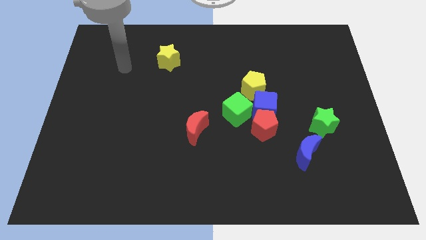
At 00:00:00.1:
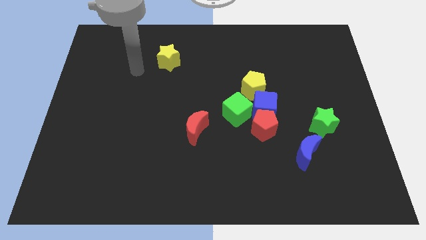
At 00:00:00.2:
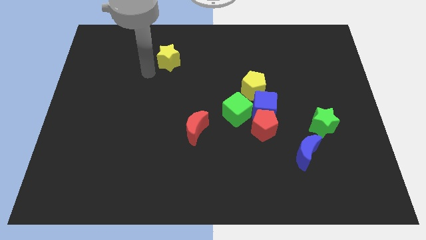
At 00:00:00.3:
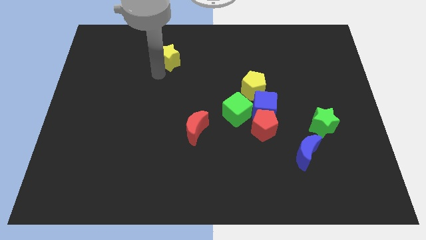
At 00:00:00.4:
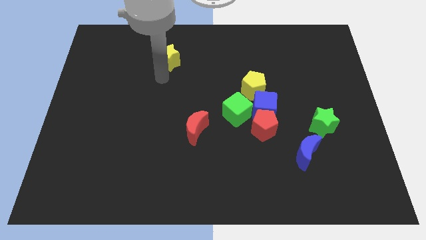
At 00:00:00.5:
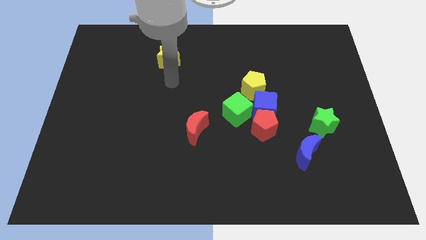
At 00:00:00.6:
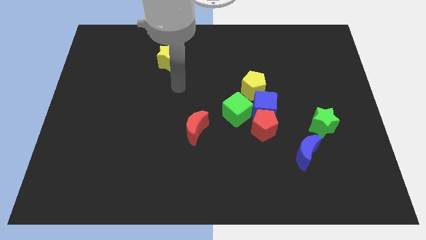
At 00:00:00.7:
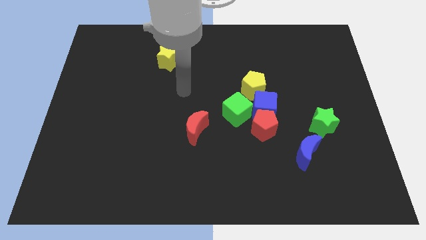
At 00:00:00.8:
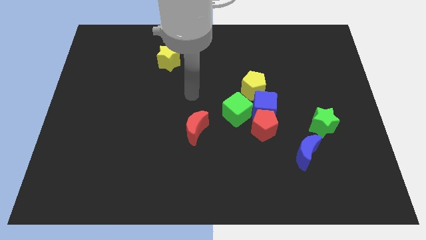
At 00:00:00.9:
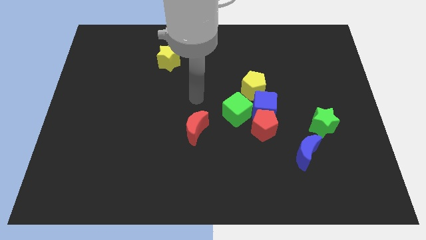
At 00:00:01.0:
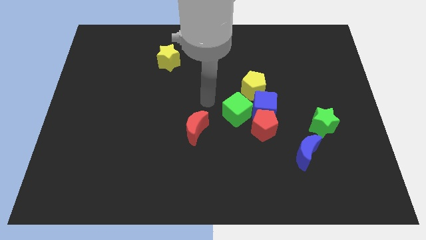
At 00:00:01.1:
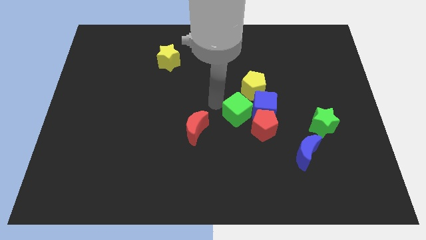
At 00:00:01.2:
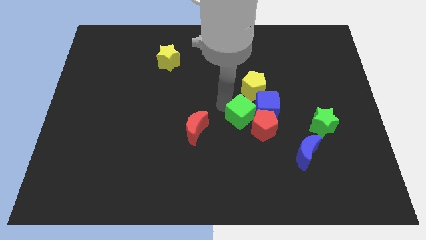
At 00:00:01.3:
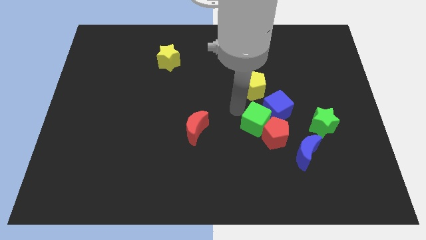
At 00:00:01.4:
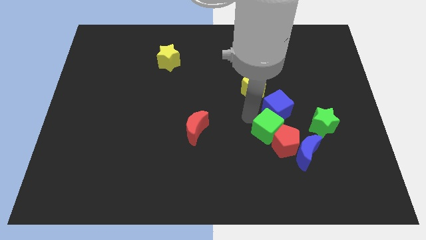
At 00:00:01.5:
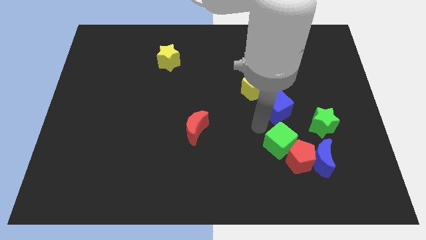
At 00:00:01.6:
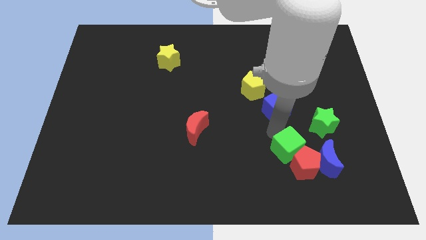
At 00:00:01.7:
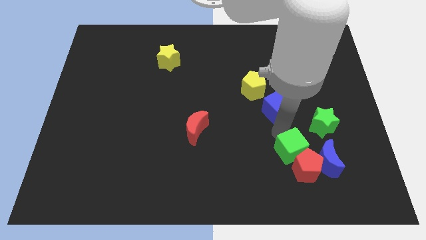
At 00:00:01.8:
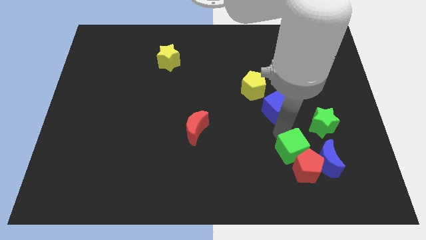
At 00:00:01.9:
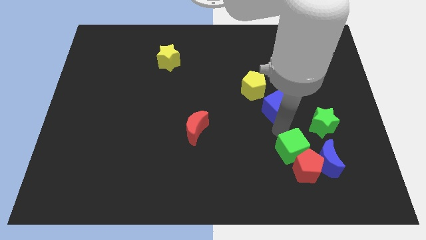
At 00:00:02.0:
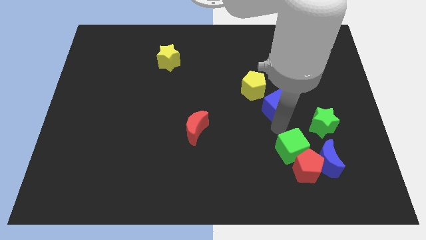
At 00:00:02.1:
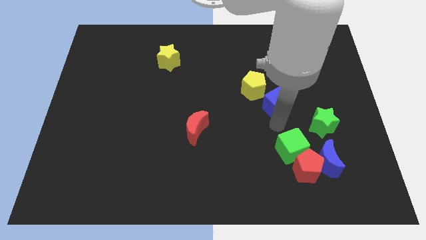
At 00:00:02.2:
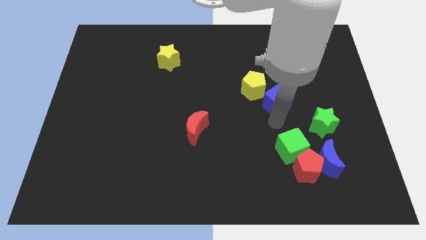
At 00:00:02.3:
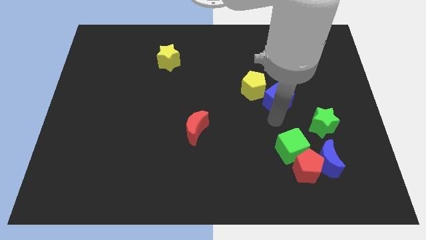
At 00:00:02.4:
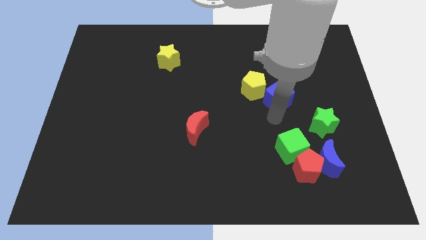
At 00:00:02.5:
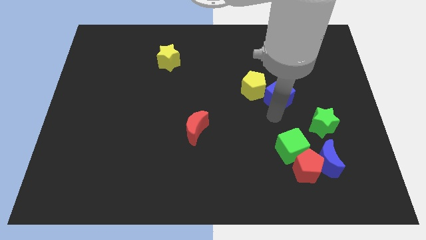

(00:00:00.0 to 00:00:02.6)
separate the blue cube from the group

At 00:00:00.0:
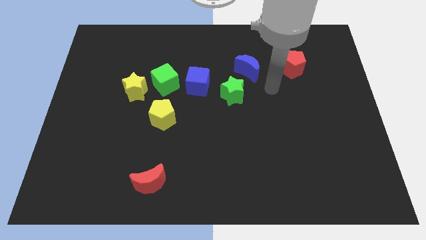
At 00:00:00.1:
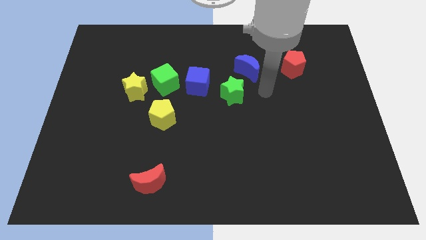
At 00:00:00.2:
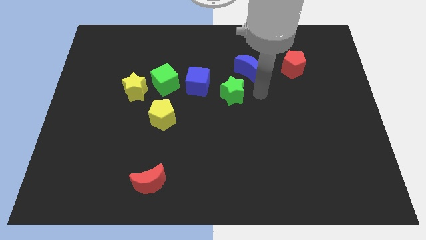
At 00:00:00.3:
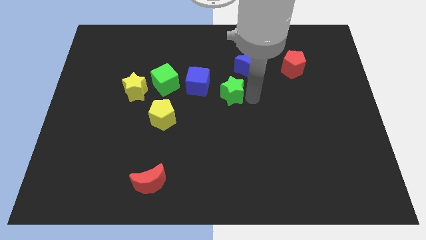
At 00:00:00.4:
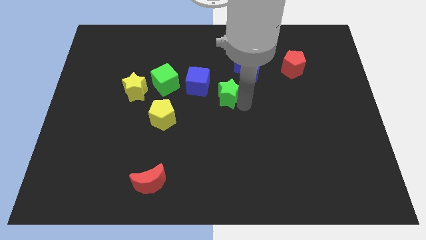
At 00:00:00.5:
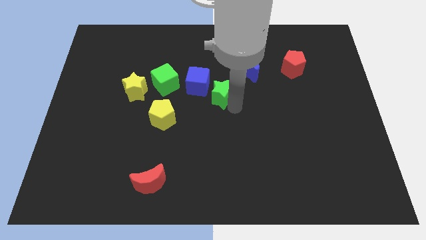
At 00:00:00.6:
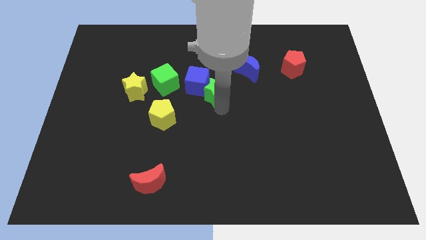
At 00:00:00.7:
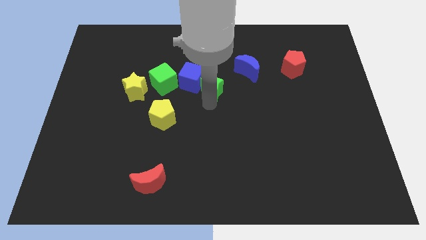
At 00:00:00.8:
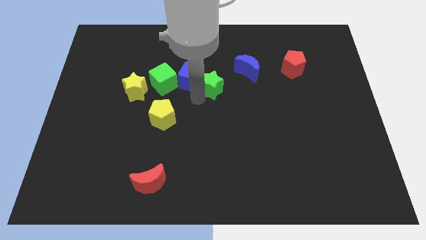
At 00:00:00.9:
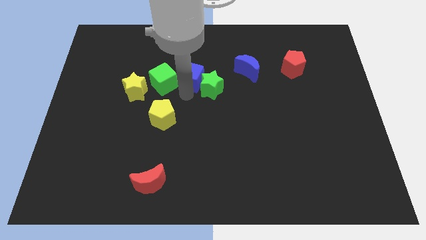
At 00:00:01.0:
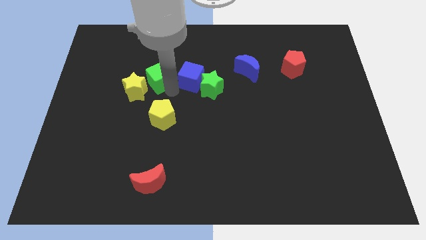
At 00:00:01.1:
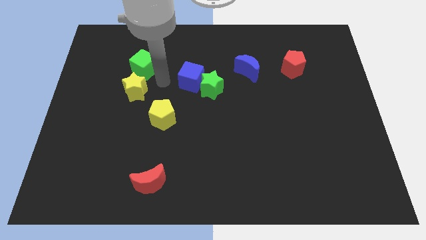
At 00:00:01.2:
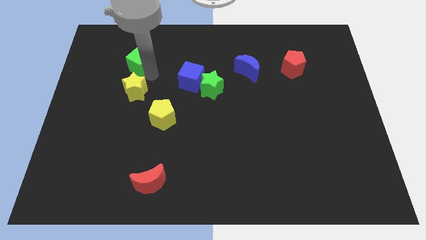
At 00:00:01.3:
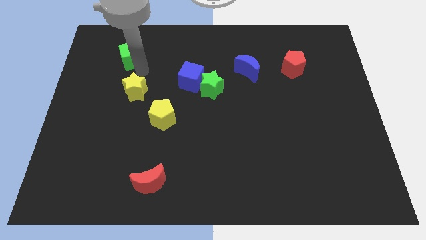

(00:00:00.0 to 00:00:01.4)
move the yellow star away from the green cube

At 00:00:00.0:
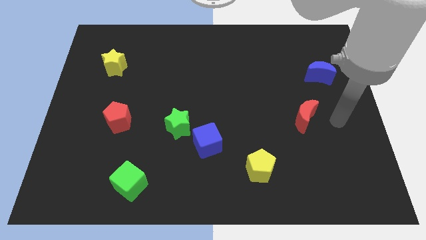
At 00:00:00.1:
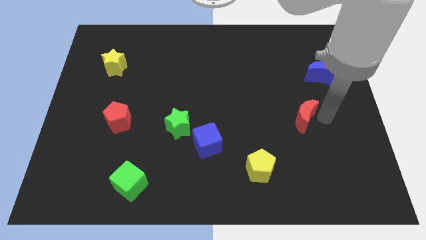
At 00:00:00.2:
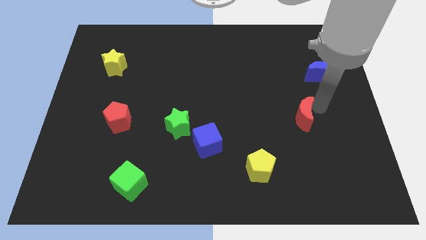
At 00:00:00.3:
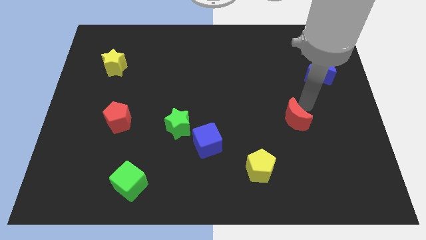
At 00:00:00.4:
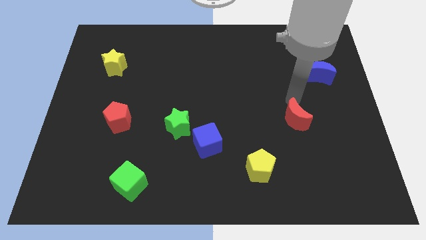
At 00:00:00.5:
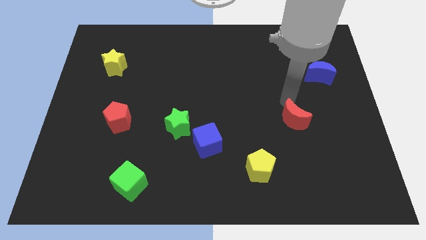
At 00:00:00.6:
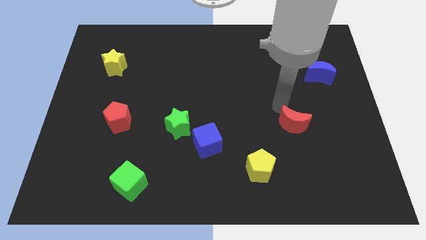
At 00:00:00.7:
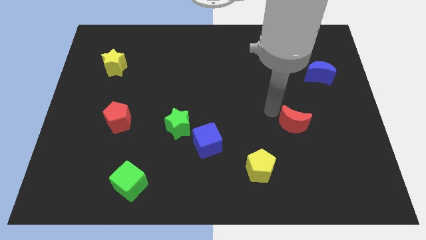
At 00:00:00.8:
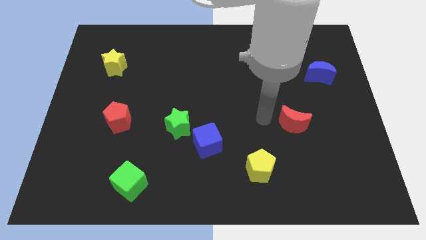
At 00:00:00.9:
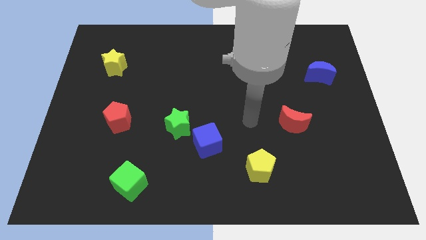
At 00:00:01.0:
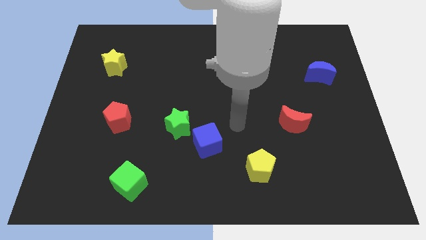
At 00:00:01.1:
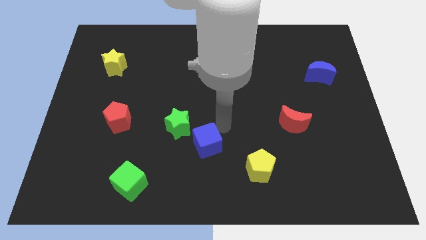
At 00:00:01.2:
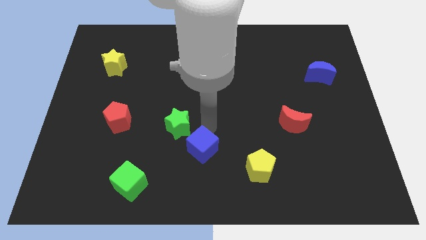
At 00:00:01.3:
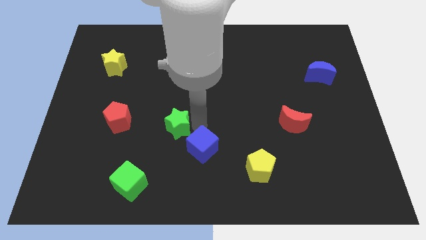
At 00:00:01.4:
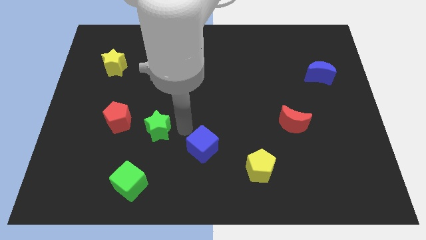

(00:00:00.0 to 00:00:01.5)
move the blue cube away from the green star

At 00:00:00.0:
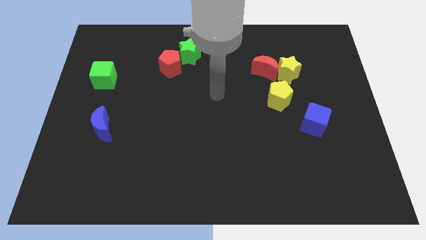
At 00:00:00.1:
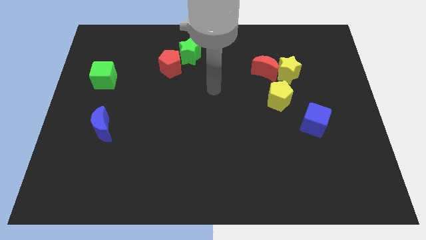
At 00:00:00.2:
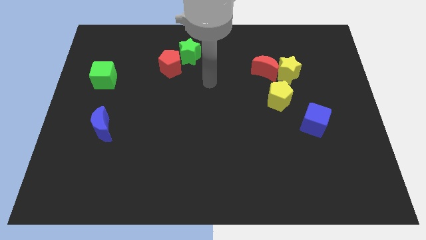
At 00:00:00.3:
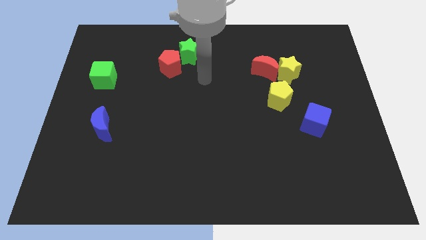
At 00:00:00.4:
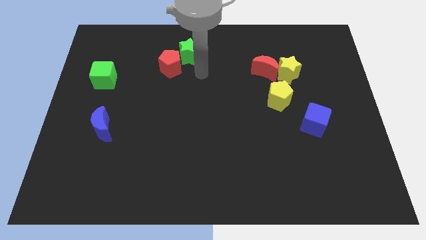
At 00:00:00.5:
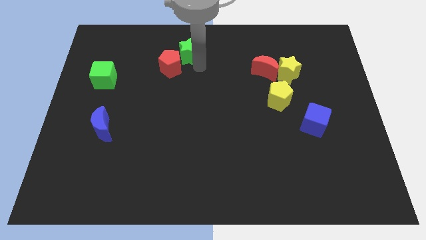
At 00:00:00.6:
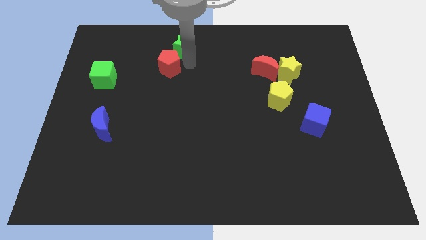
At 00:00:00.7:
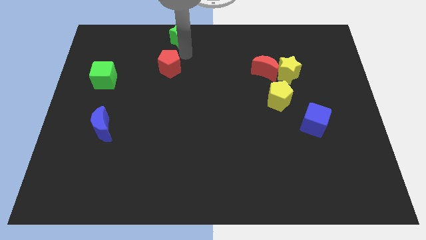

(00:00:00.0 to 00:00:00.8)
separate the red pentagon from the green star

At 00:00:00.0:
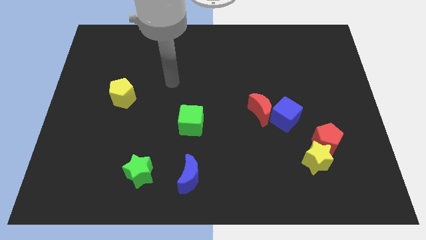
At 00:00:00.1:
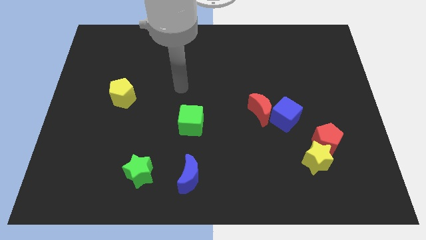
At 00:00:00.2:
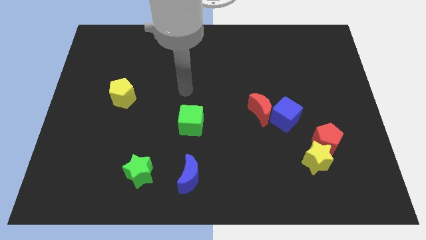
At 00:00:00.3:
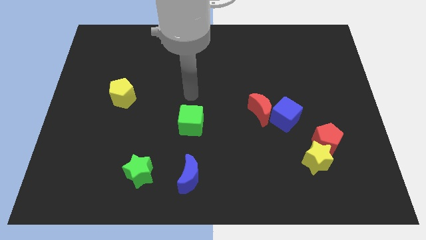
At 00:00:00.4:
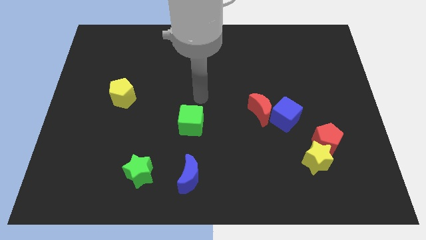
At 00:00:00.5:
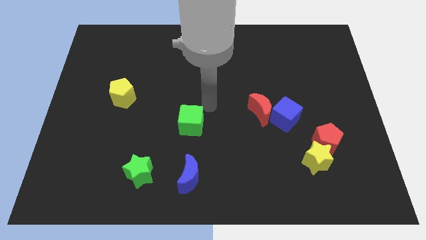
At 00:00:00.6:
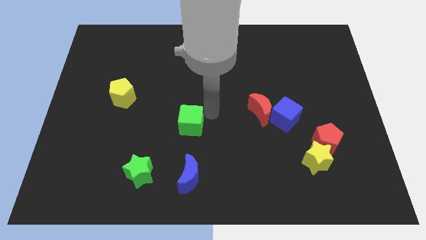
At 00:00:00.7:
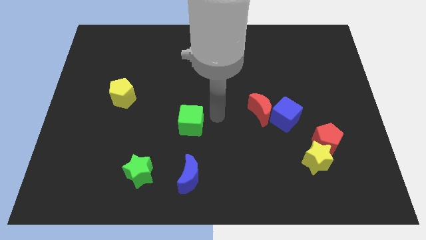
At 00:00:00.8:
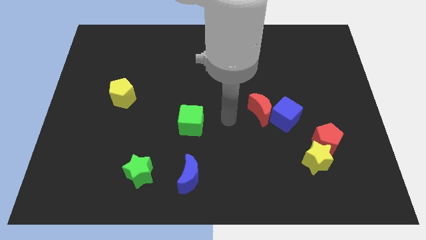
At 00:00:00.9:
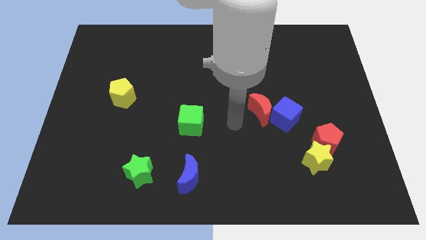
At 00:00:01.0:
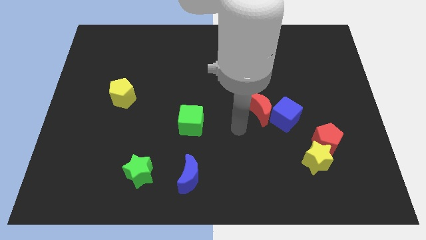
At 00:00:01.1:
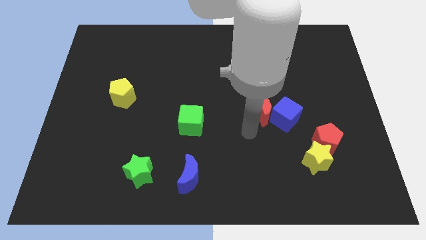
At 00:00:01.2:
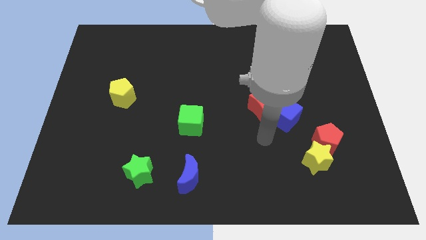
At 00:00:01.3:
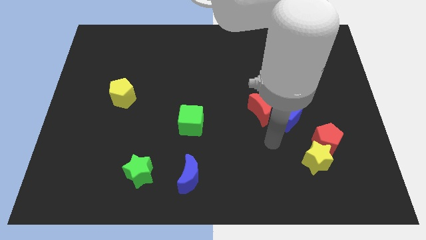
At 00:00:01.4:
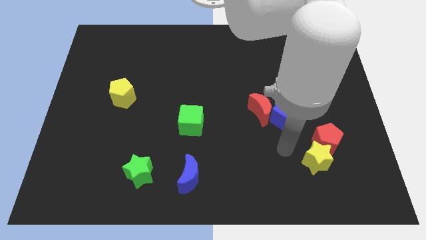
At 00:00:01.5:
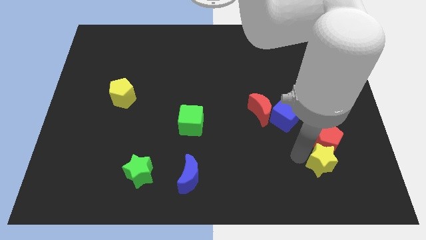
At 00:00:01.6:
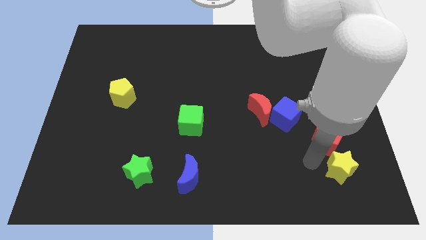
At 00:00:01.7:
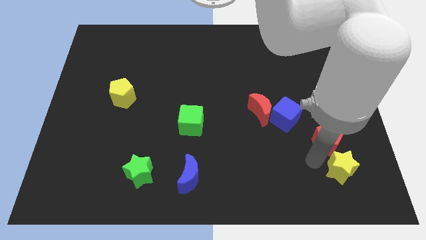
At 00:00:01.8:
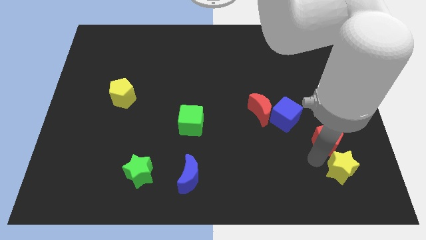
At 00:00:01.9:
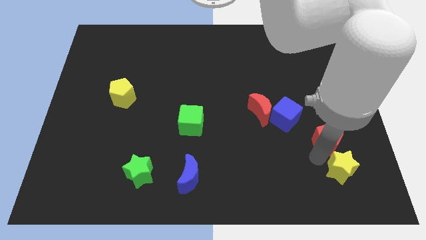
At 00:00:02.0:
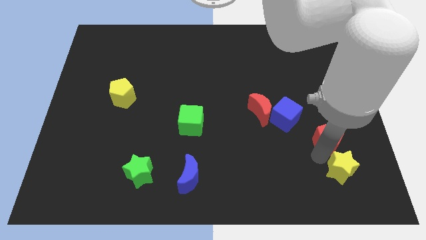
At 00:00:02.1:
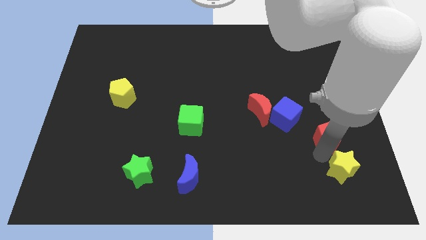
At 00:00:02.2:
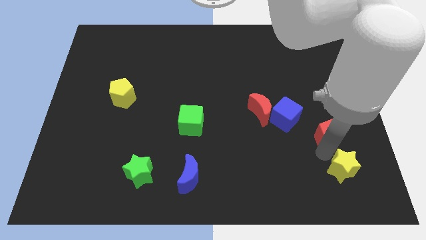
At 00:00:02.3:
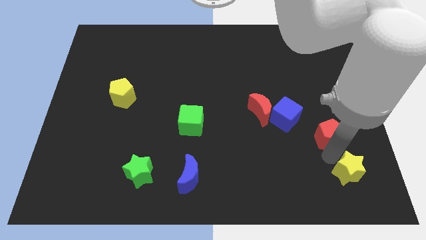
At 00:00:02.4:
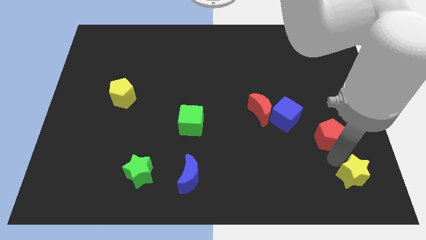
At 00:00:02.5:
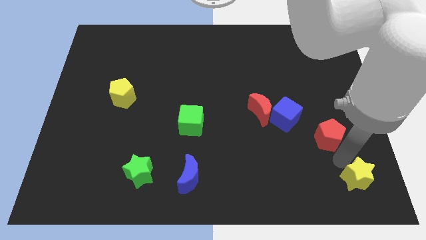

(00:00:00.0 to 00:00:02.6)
separate the red pentagon from the yellow star

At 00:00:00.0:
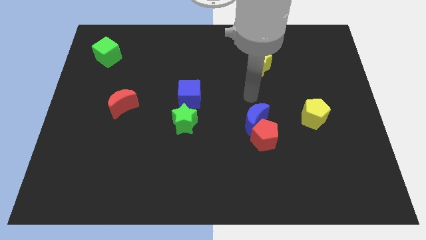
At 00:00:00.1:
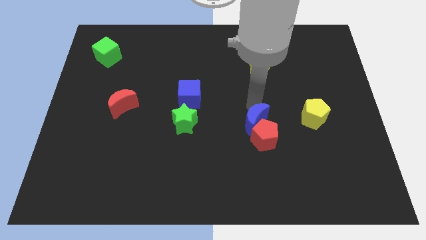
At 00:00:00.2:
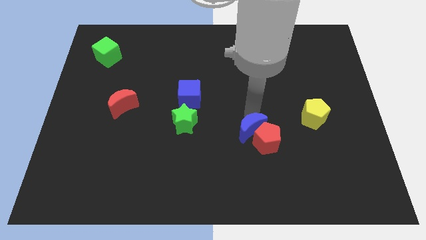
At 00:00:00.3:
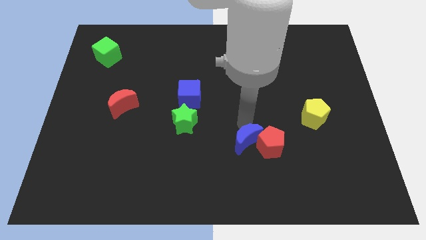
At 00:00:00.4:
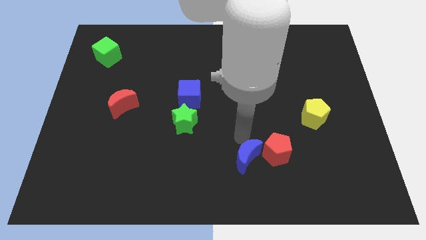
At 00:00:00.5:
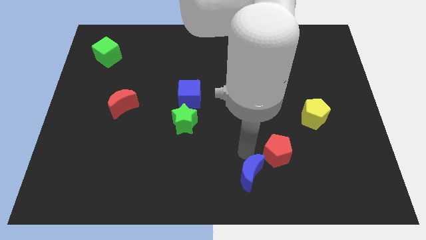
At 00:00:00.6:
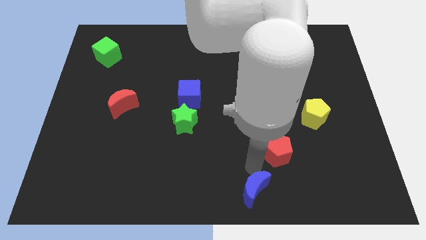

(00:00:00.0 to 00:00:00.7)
move the red pentagon away from the blue moon
